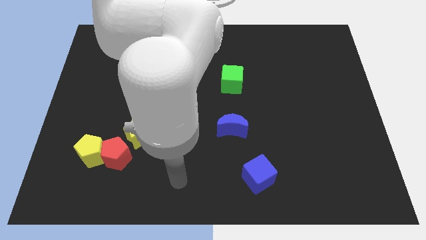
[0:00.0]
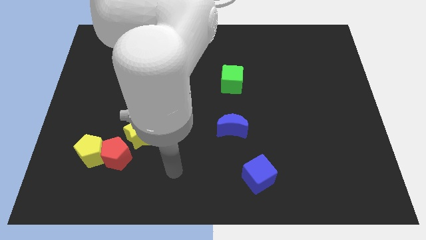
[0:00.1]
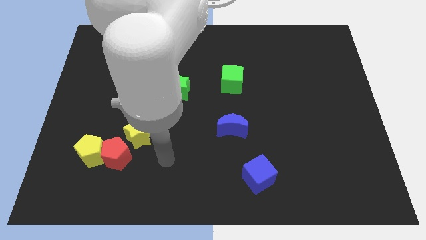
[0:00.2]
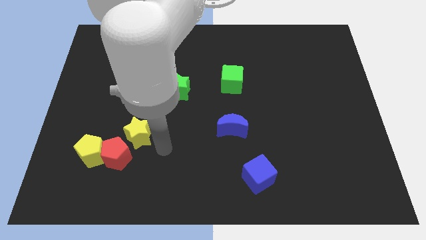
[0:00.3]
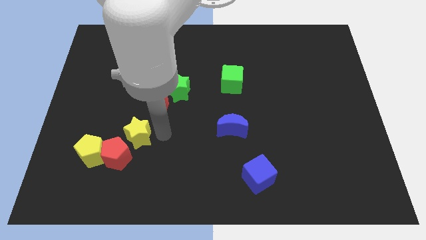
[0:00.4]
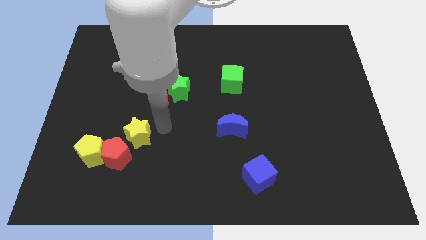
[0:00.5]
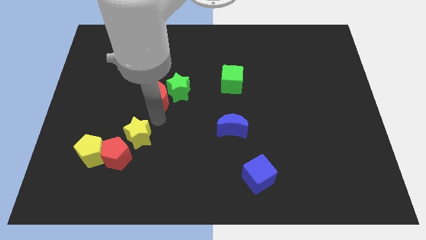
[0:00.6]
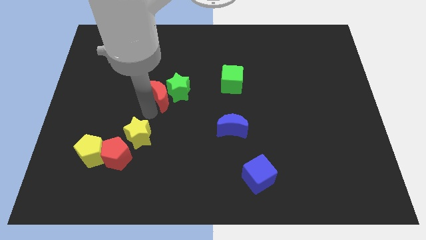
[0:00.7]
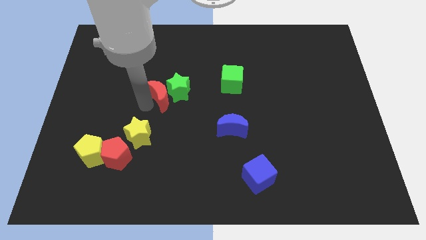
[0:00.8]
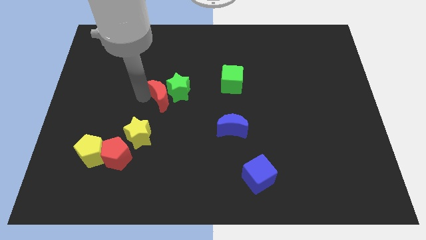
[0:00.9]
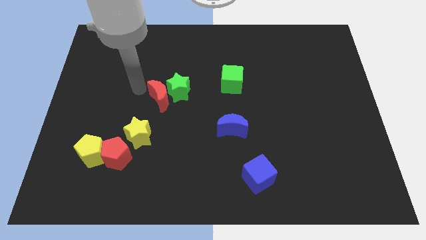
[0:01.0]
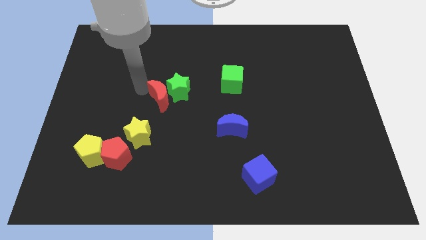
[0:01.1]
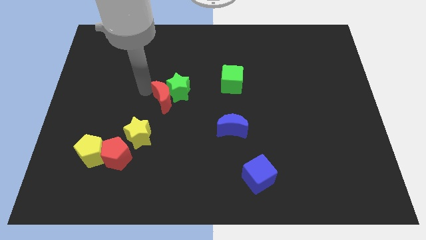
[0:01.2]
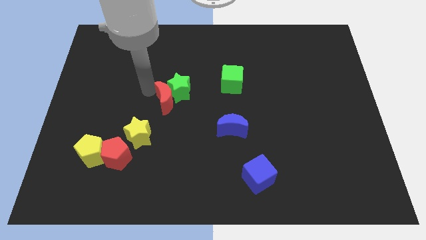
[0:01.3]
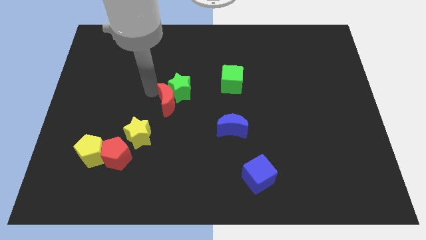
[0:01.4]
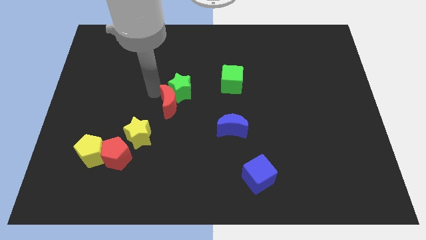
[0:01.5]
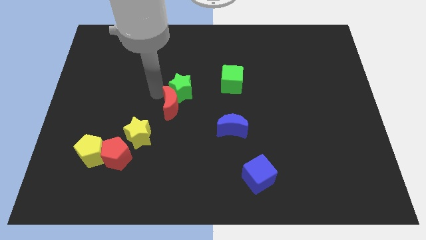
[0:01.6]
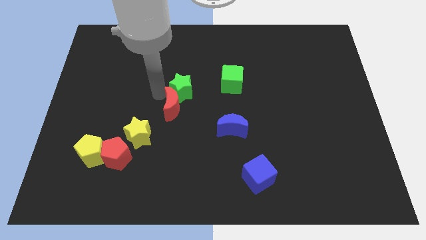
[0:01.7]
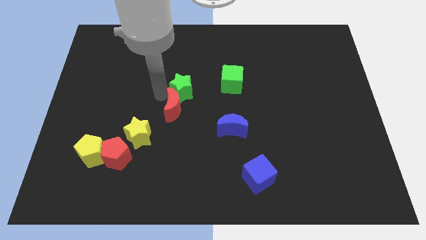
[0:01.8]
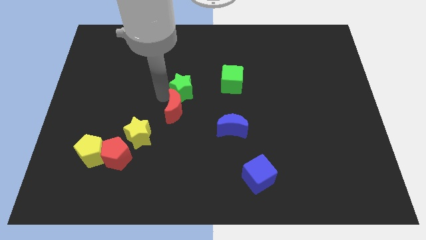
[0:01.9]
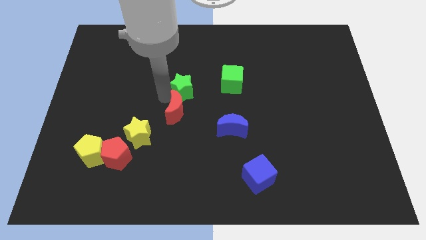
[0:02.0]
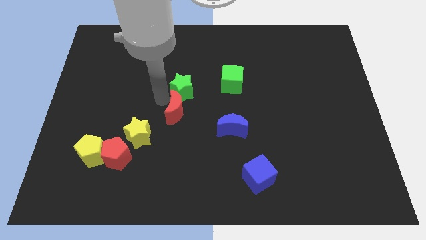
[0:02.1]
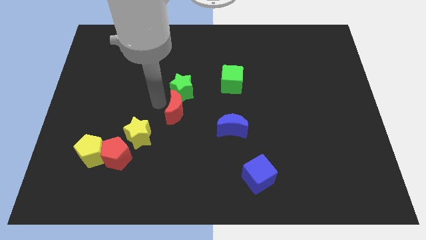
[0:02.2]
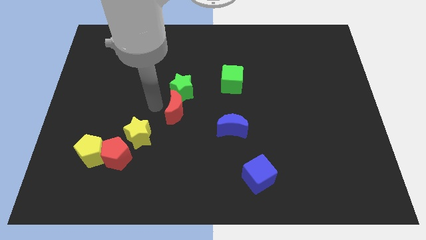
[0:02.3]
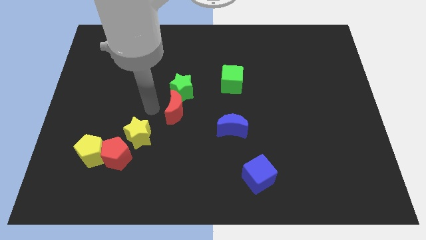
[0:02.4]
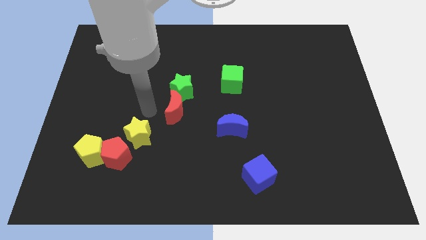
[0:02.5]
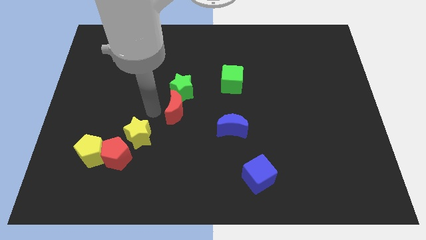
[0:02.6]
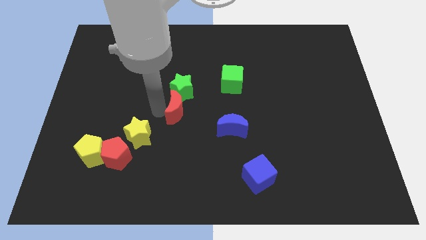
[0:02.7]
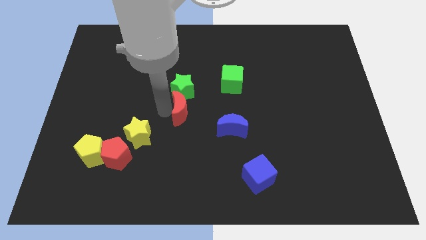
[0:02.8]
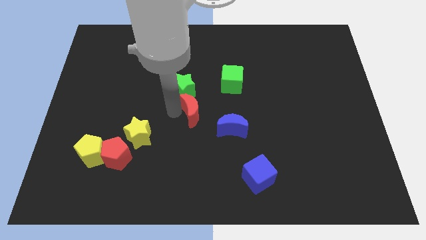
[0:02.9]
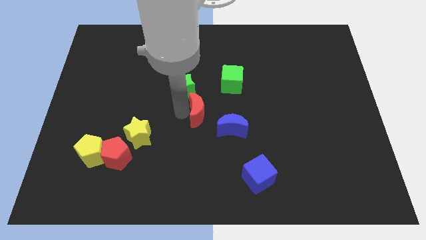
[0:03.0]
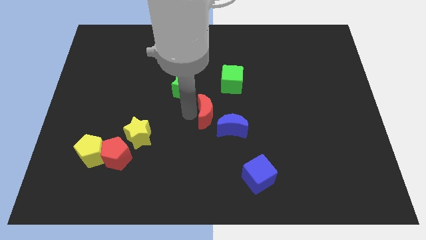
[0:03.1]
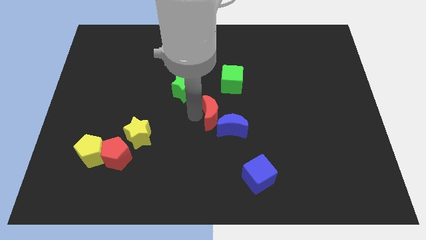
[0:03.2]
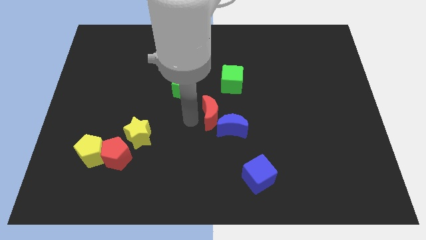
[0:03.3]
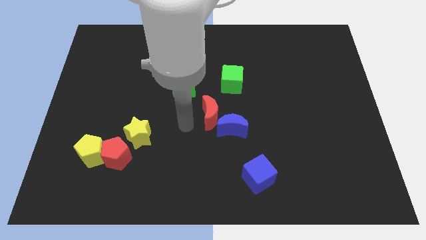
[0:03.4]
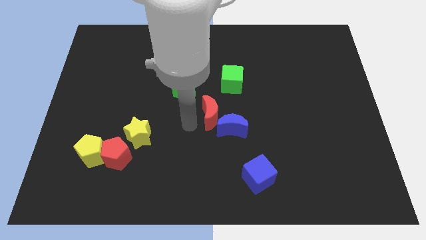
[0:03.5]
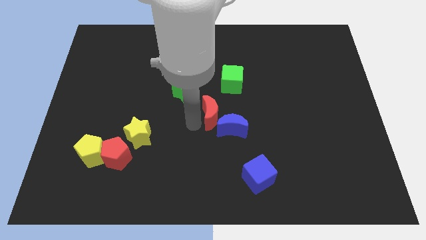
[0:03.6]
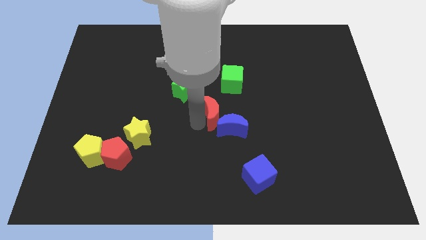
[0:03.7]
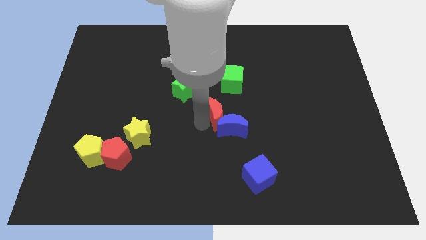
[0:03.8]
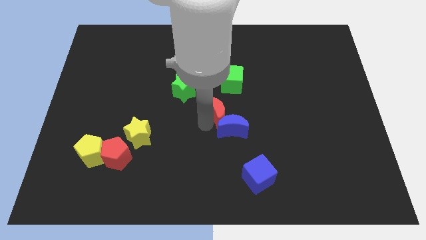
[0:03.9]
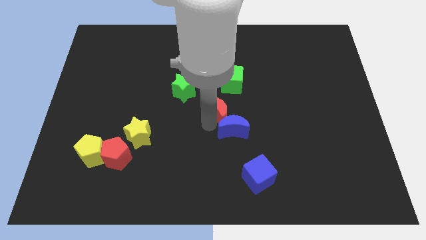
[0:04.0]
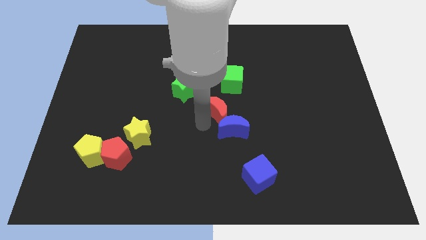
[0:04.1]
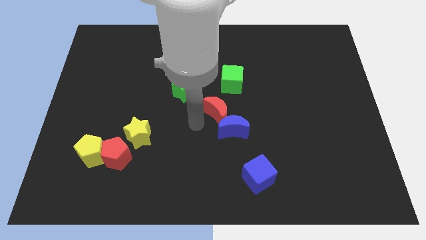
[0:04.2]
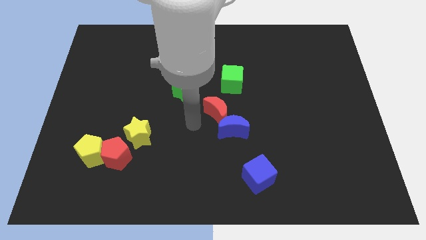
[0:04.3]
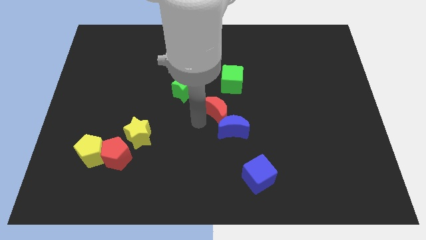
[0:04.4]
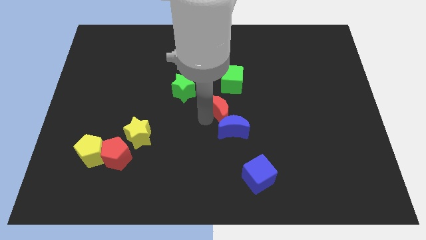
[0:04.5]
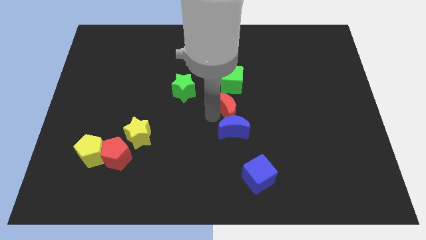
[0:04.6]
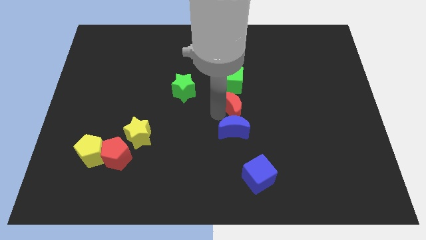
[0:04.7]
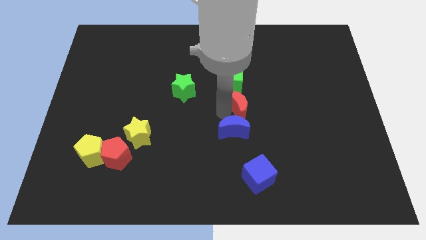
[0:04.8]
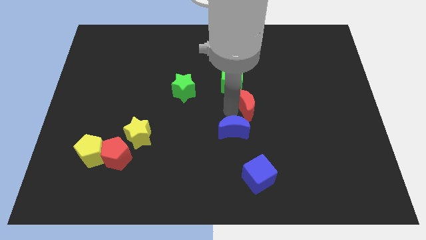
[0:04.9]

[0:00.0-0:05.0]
move the red moon right

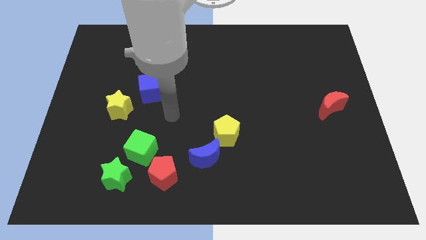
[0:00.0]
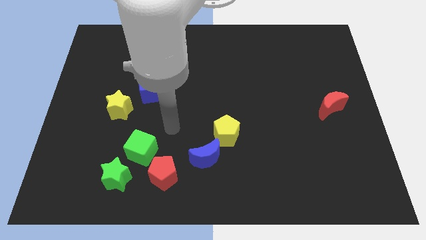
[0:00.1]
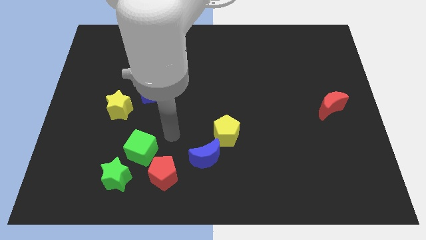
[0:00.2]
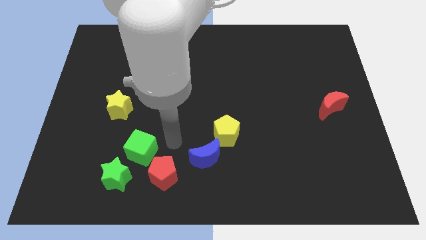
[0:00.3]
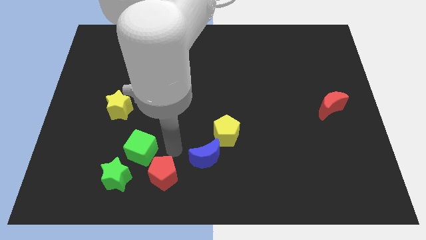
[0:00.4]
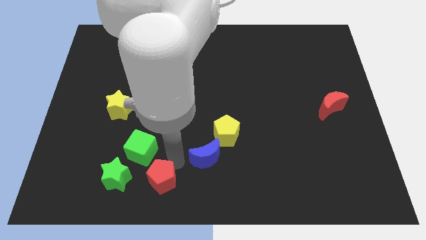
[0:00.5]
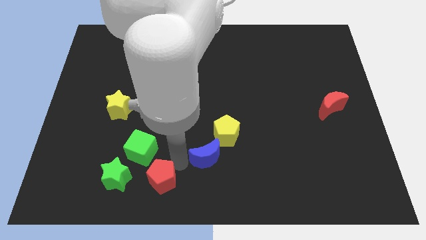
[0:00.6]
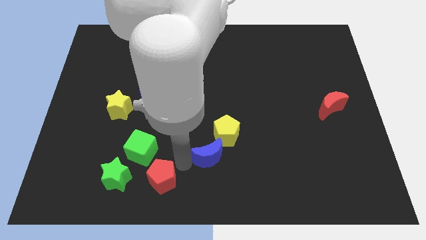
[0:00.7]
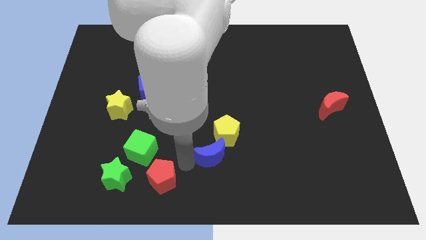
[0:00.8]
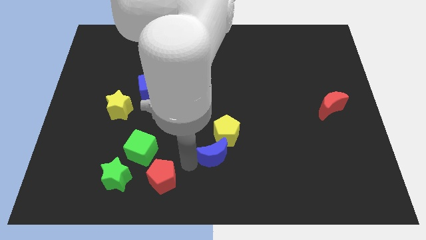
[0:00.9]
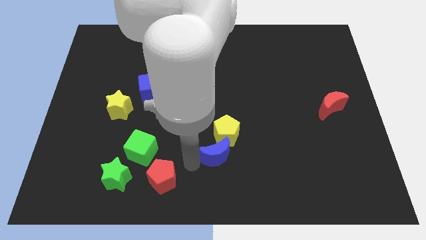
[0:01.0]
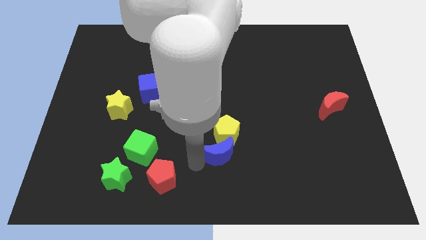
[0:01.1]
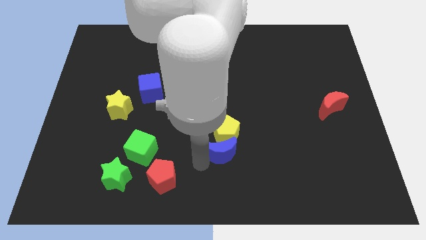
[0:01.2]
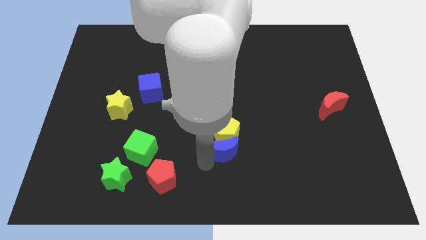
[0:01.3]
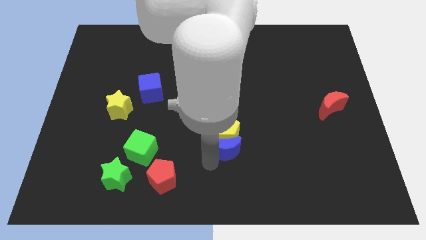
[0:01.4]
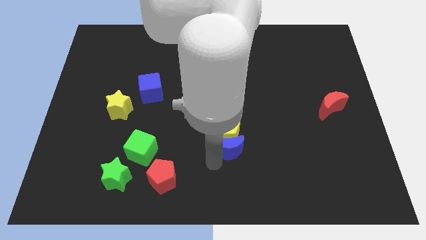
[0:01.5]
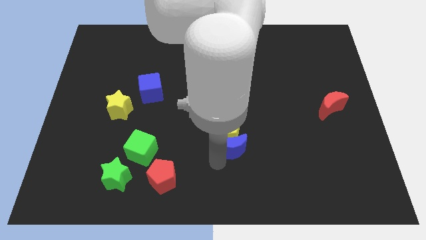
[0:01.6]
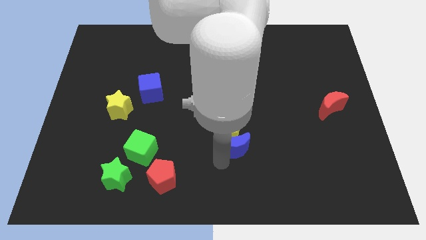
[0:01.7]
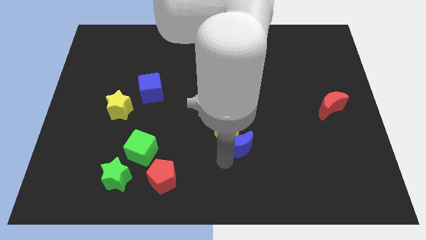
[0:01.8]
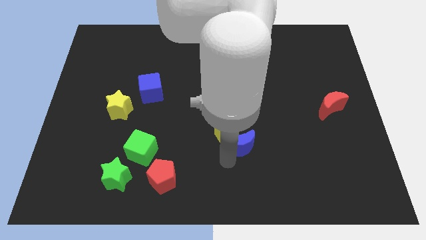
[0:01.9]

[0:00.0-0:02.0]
slightly move the blue moon right

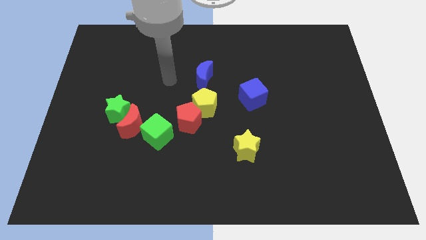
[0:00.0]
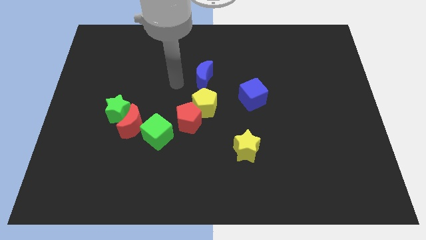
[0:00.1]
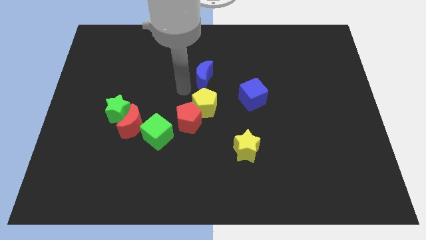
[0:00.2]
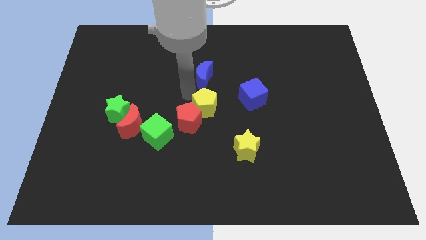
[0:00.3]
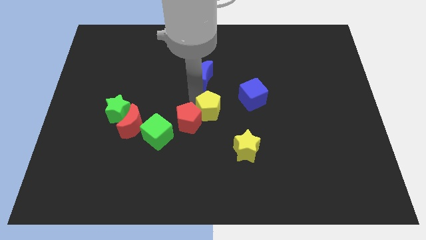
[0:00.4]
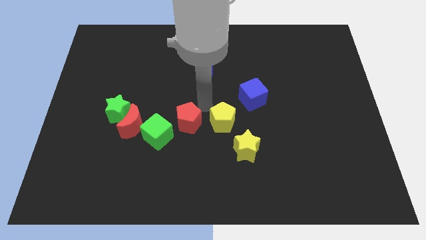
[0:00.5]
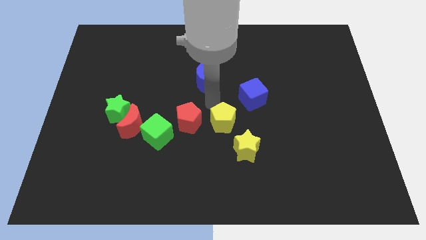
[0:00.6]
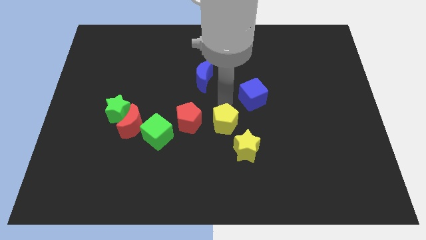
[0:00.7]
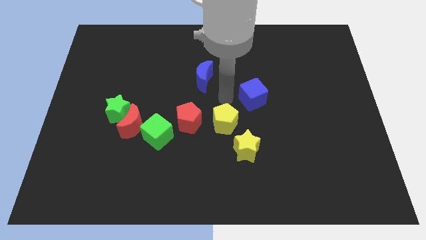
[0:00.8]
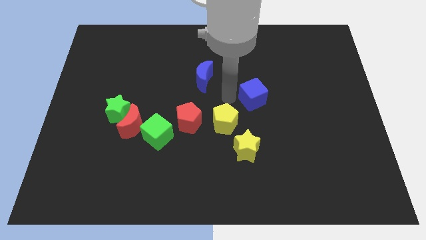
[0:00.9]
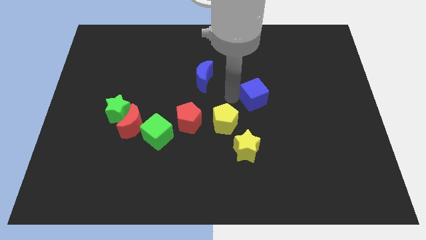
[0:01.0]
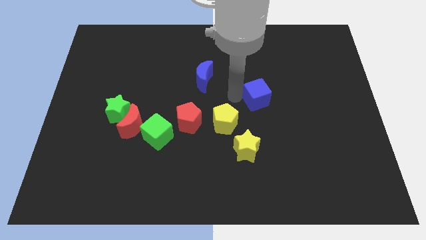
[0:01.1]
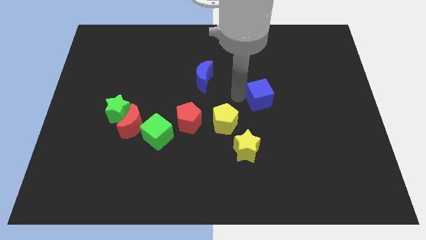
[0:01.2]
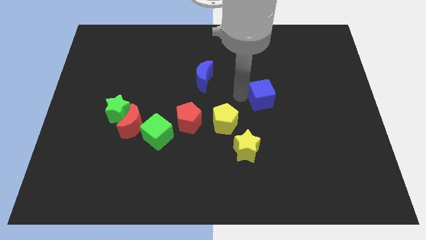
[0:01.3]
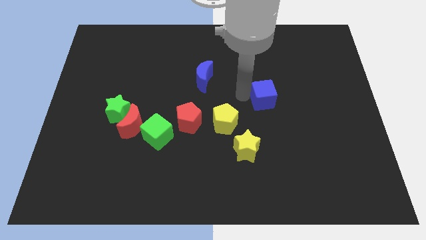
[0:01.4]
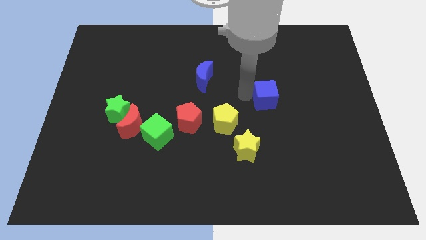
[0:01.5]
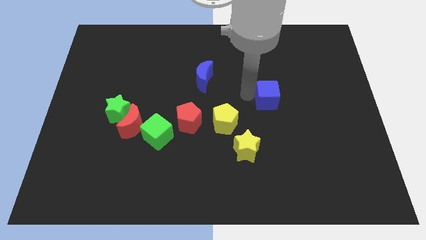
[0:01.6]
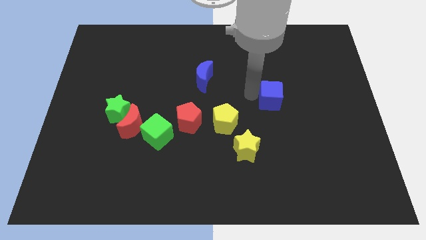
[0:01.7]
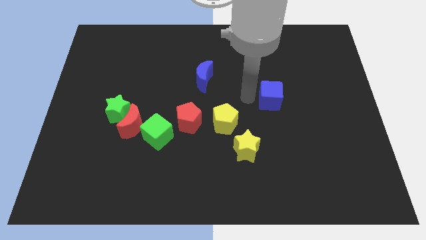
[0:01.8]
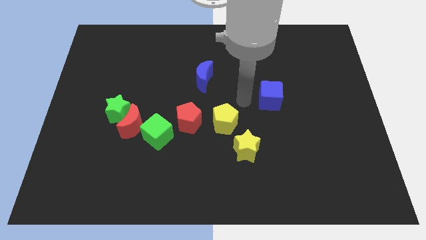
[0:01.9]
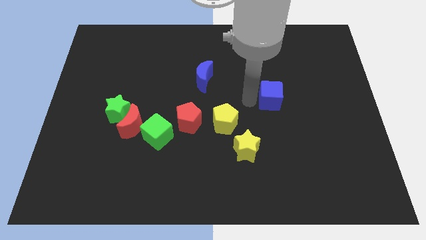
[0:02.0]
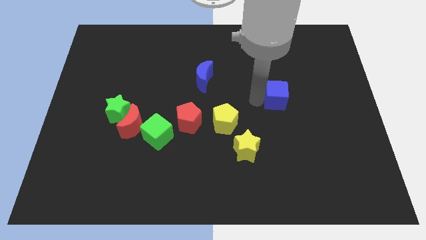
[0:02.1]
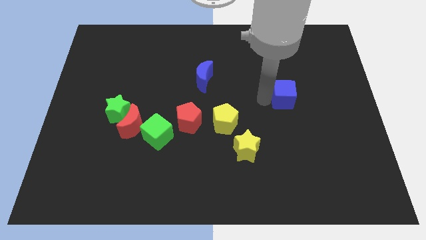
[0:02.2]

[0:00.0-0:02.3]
push the blue cube to the right slightly
